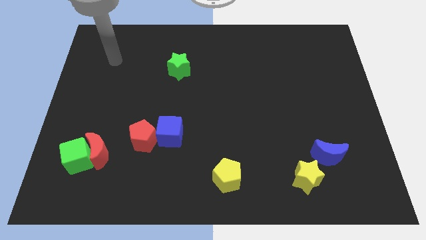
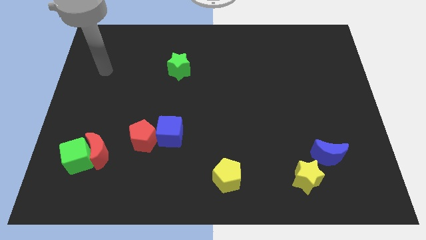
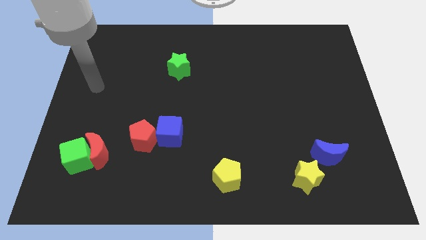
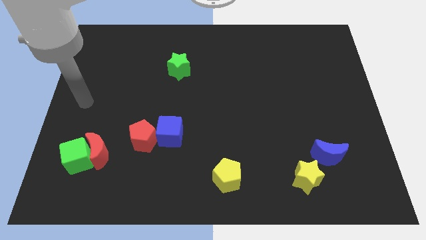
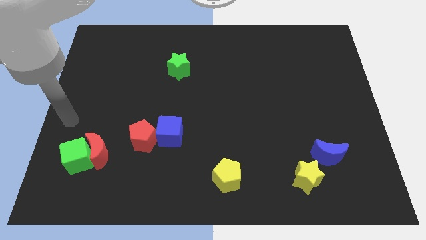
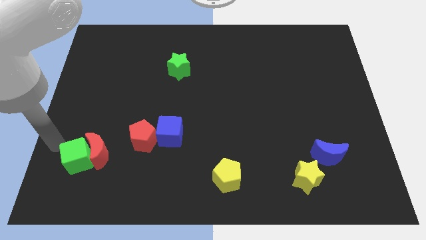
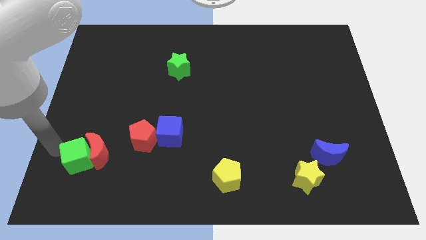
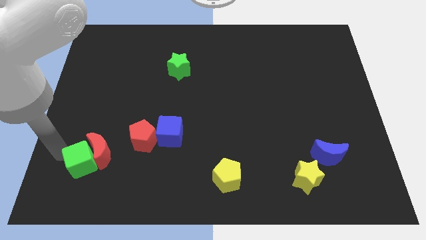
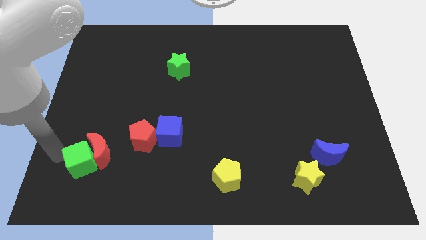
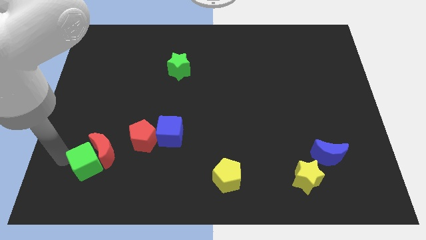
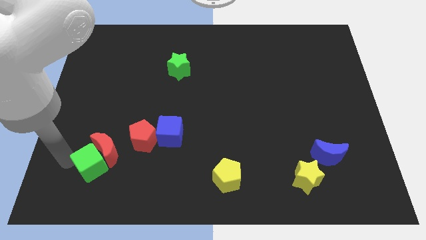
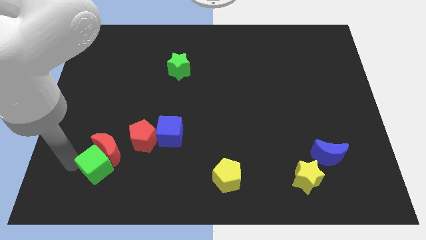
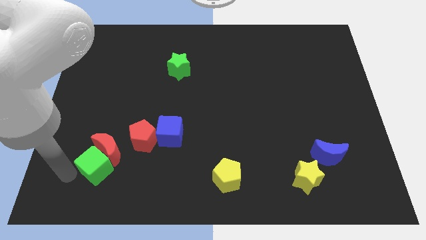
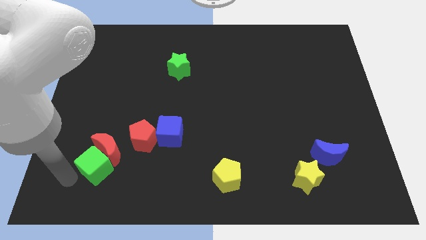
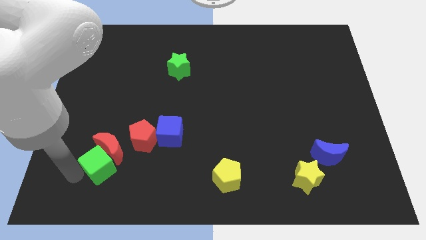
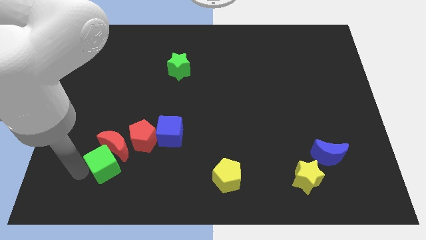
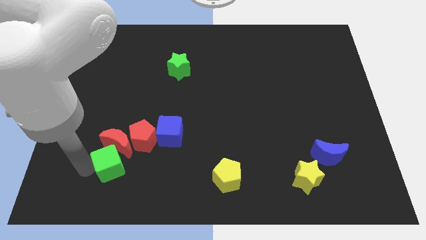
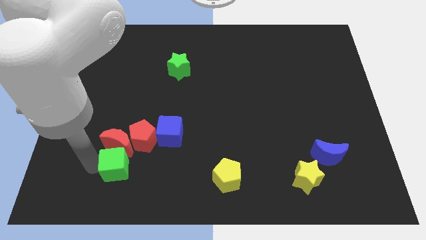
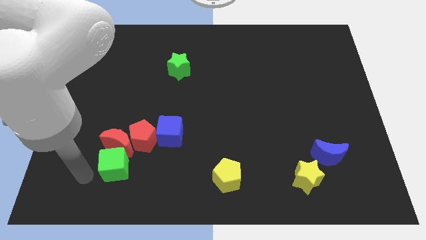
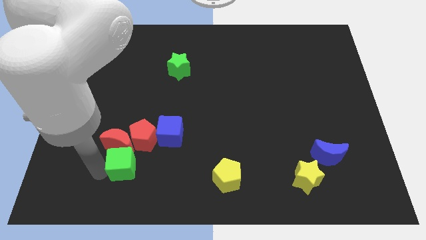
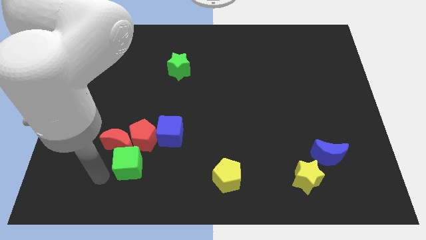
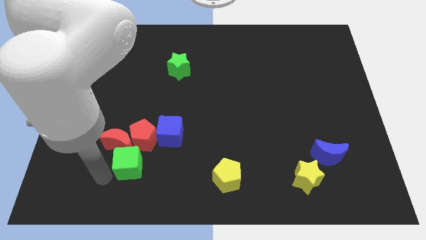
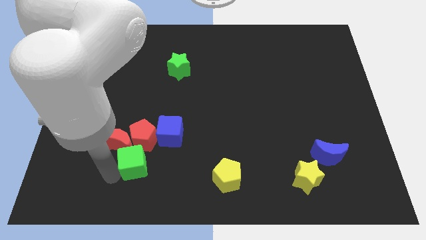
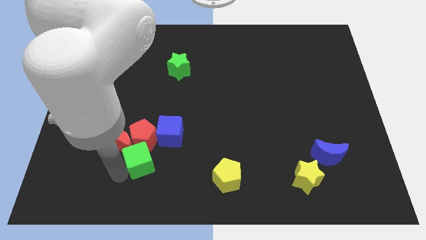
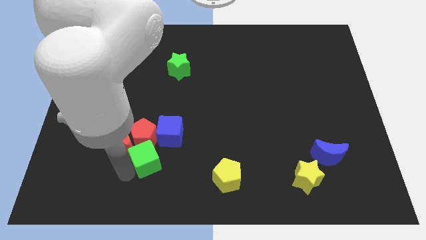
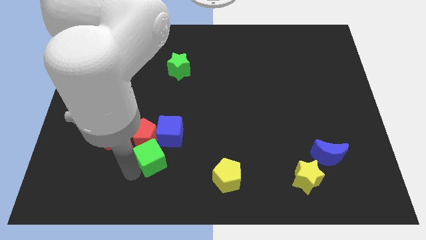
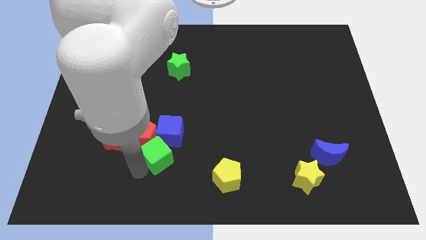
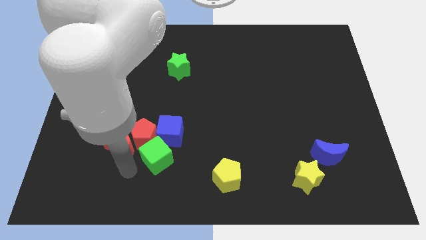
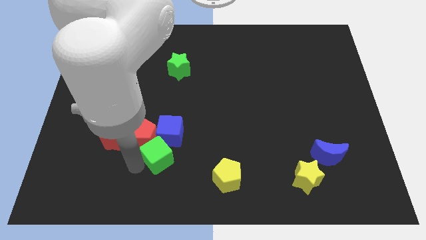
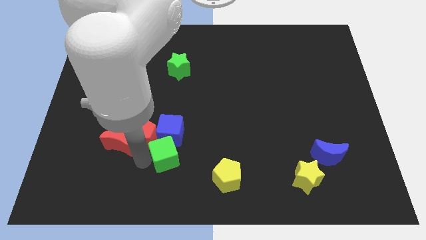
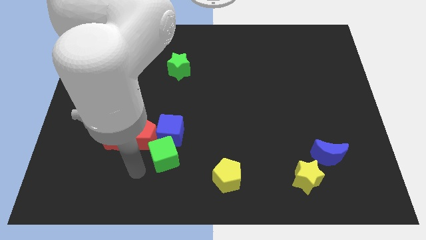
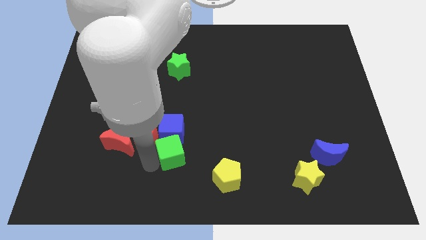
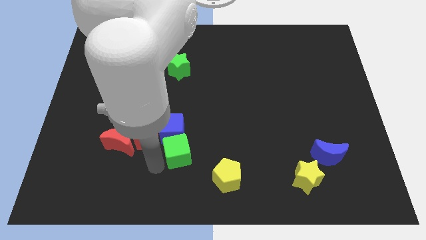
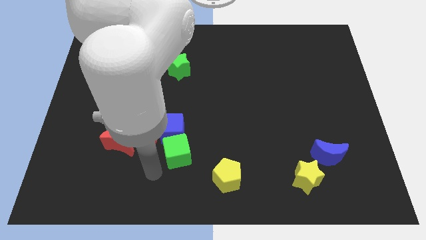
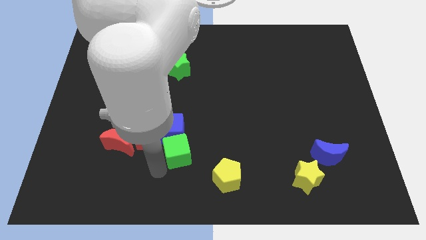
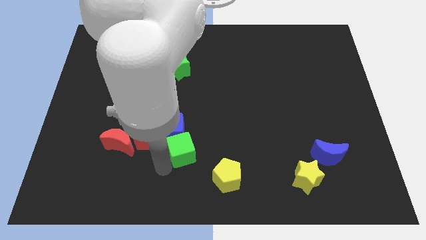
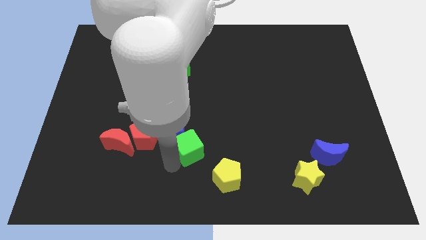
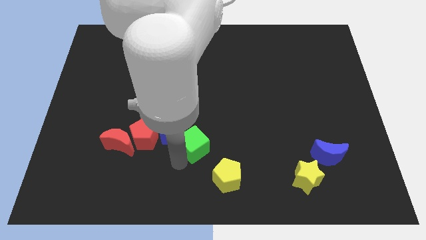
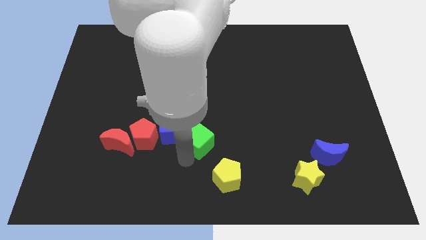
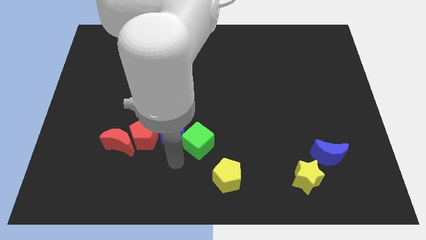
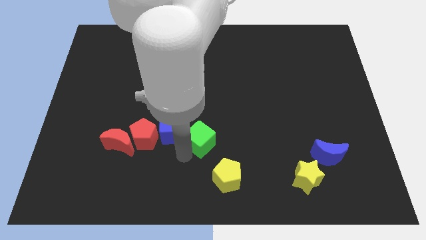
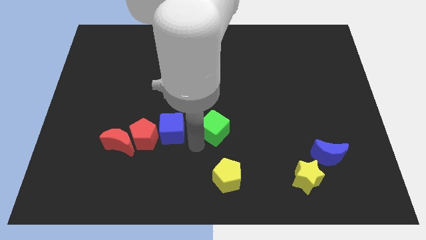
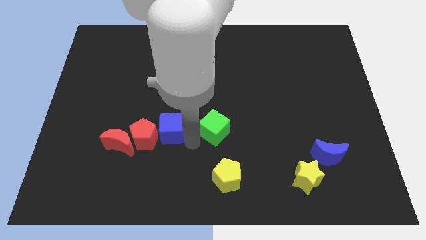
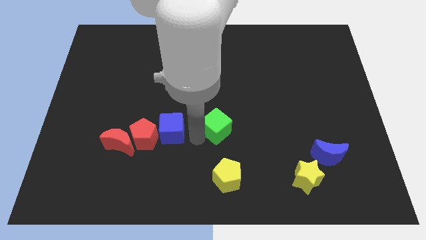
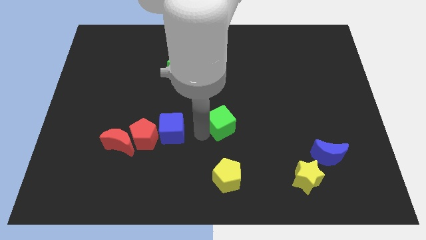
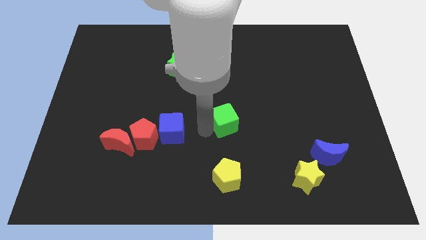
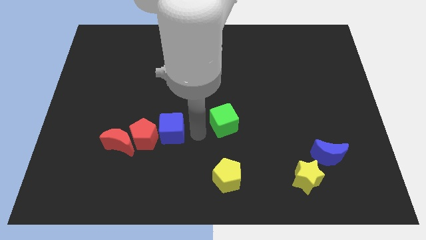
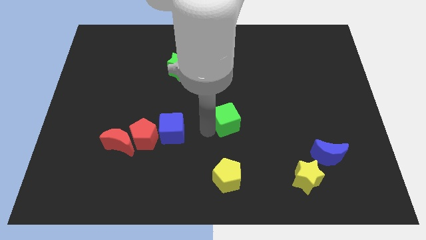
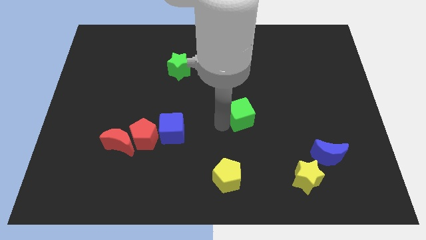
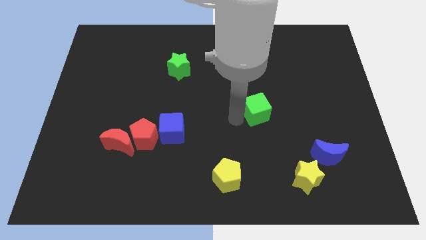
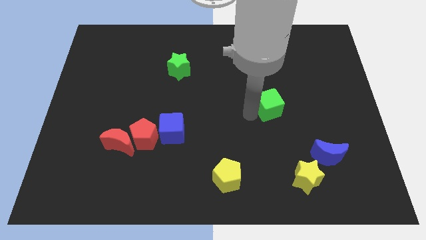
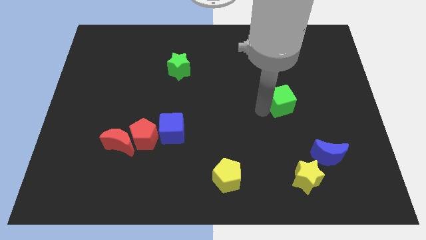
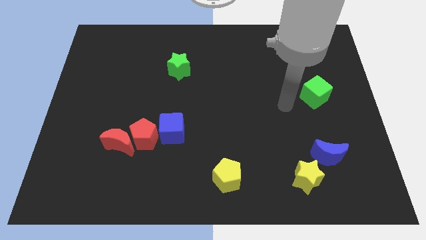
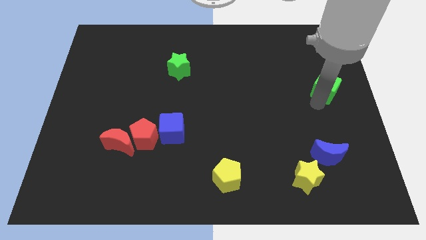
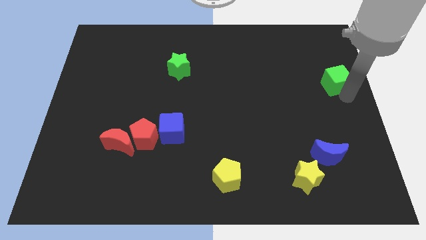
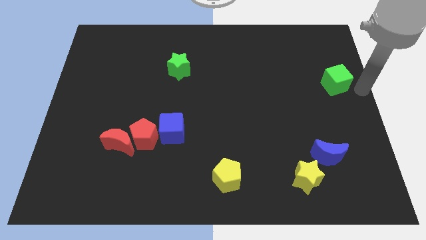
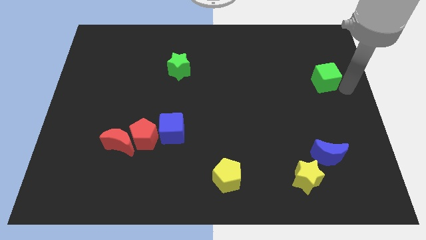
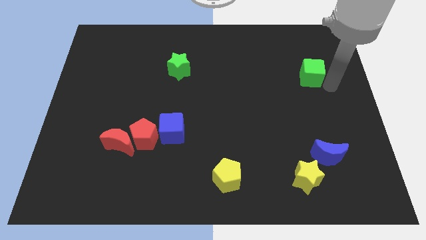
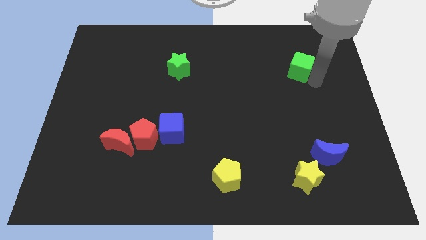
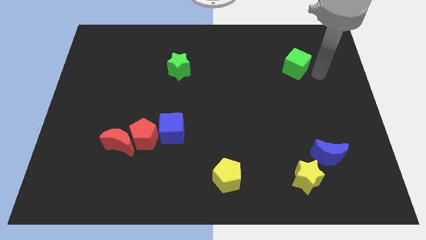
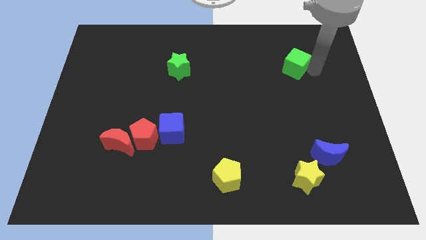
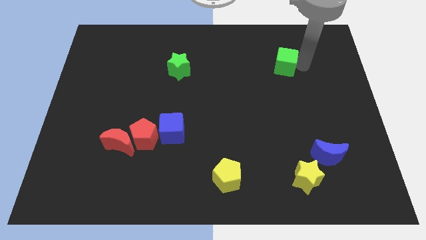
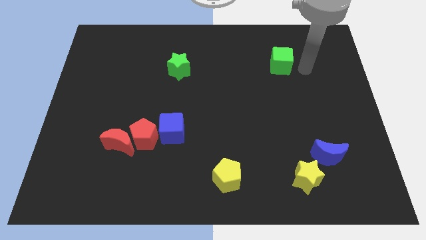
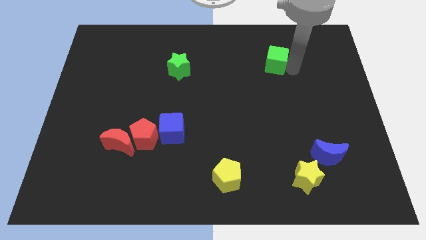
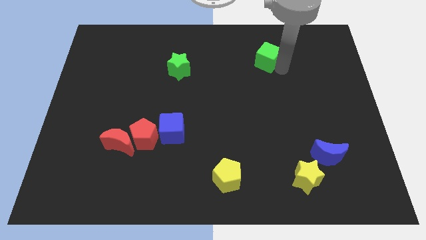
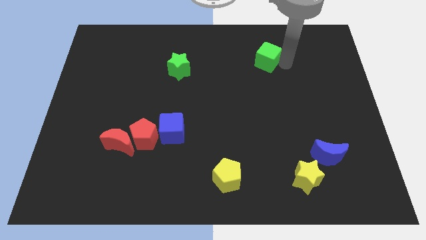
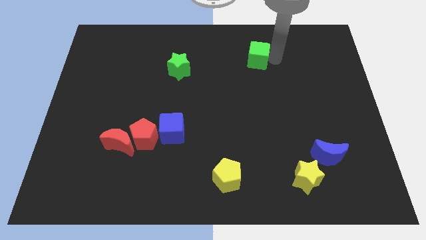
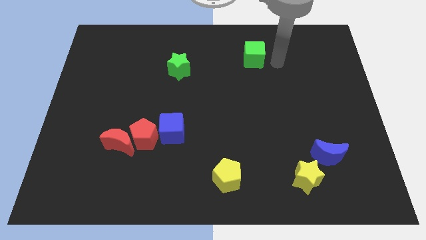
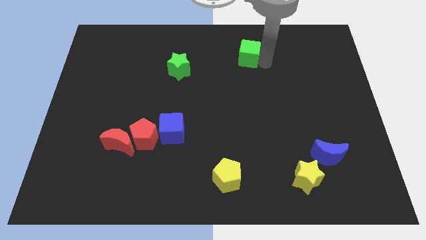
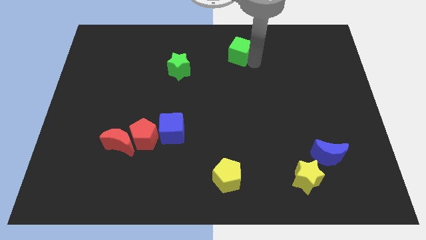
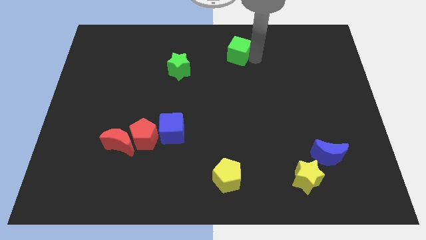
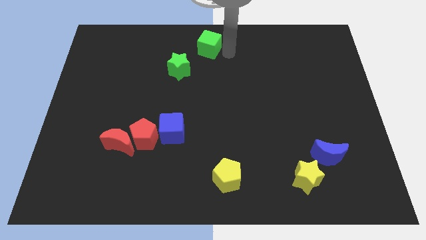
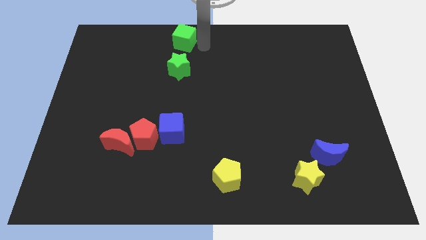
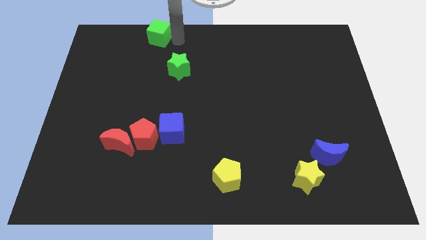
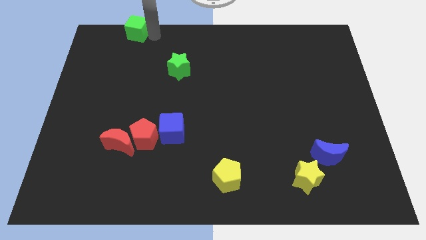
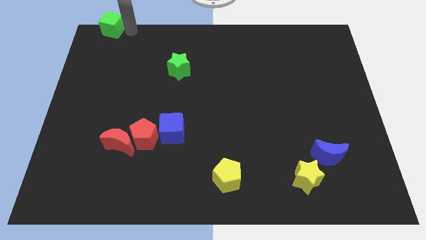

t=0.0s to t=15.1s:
push the green cube to the upper left corner
